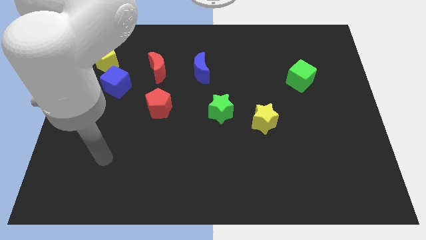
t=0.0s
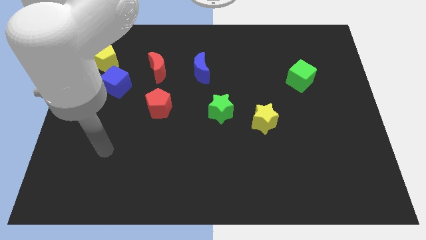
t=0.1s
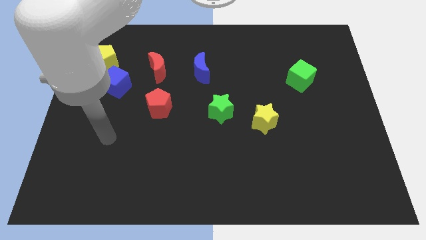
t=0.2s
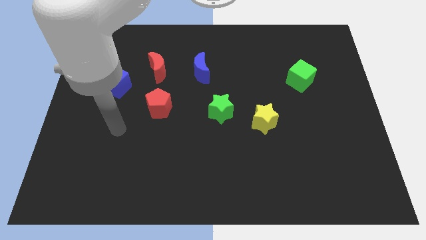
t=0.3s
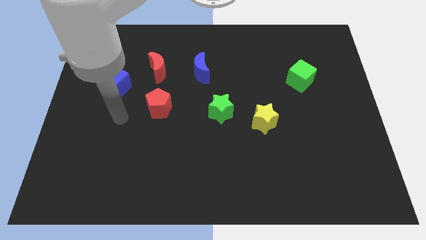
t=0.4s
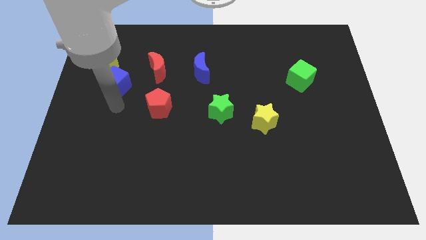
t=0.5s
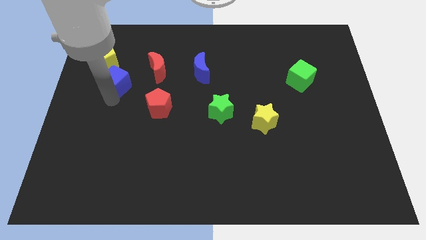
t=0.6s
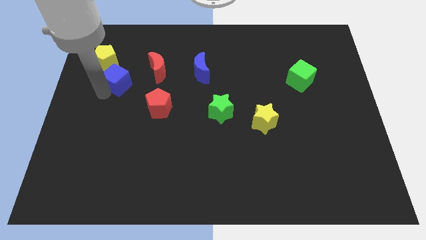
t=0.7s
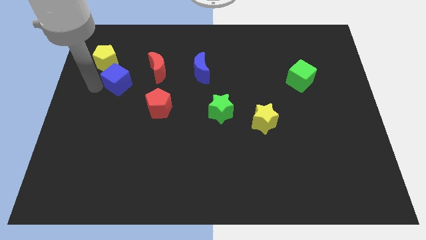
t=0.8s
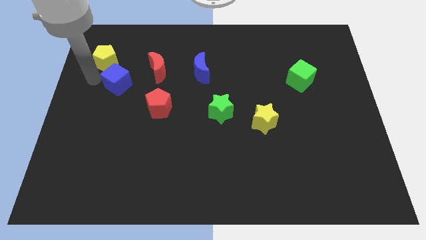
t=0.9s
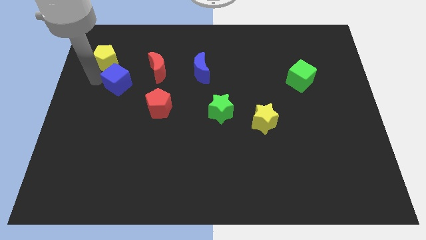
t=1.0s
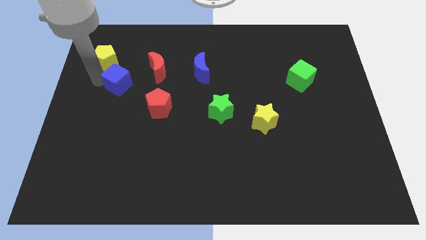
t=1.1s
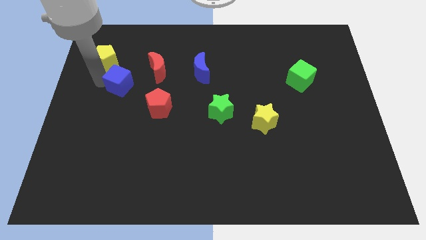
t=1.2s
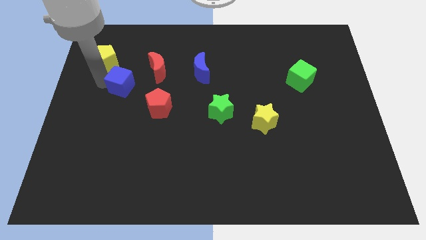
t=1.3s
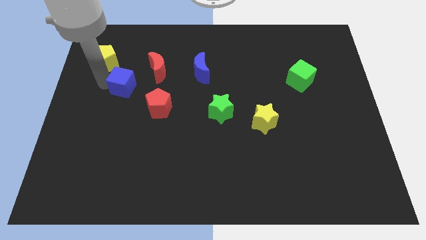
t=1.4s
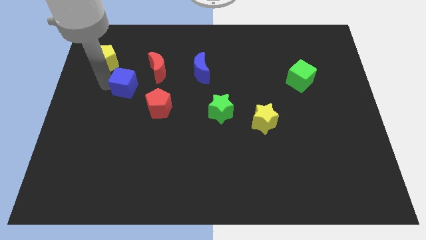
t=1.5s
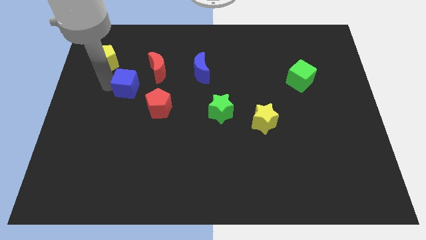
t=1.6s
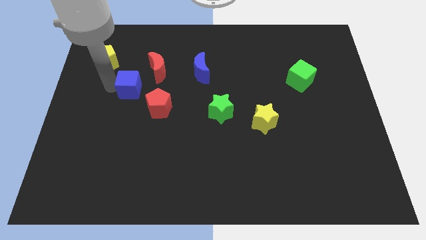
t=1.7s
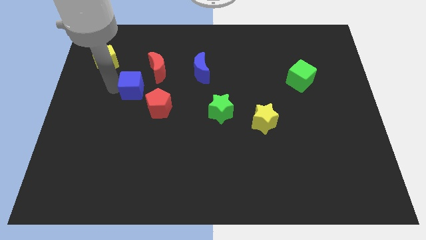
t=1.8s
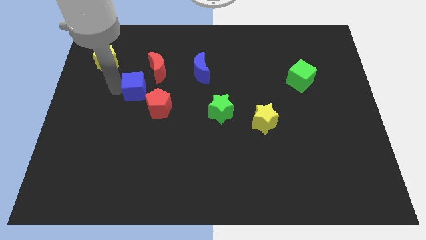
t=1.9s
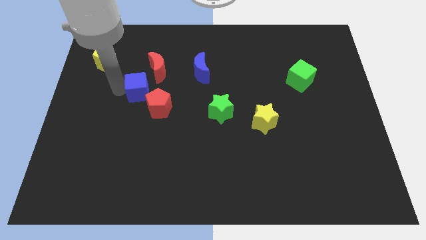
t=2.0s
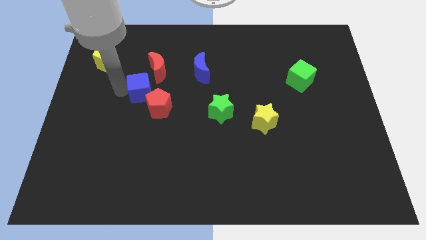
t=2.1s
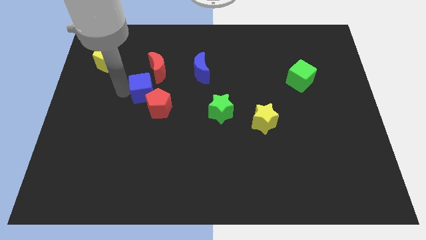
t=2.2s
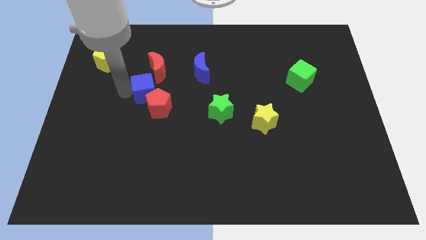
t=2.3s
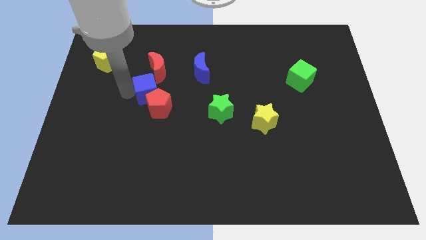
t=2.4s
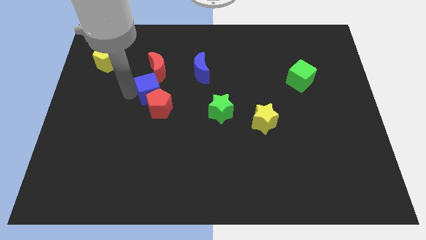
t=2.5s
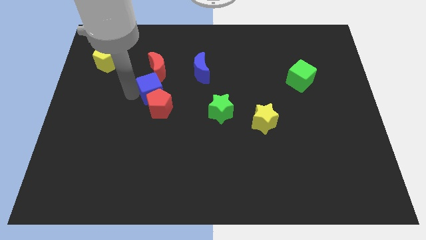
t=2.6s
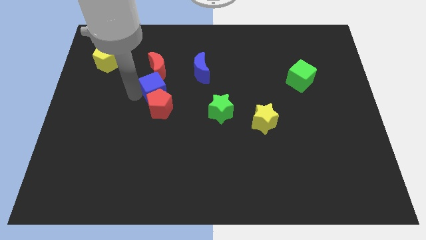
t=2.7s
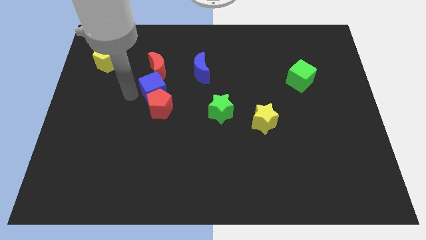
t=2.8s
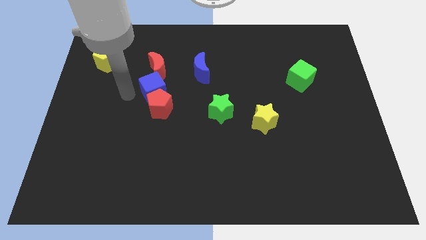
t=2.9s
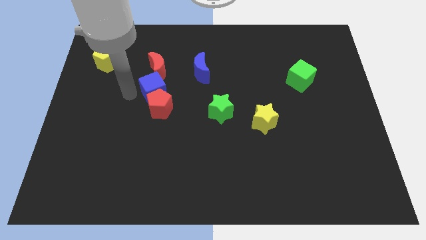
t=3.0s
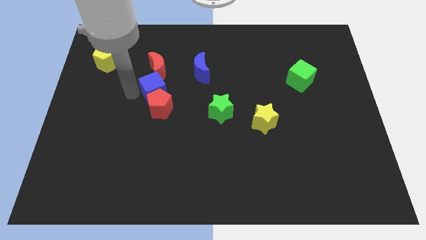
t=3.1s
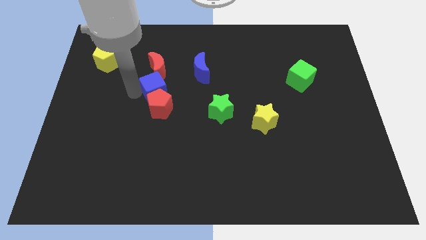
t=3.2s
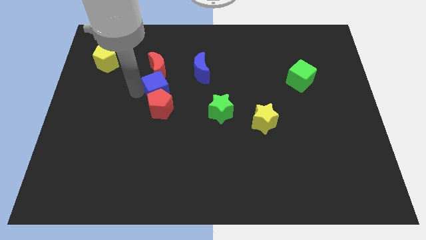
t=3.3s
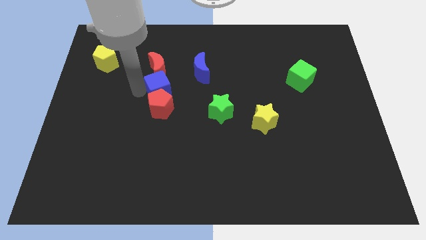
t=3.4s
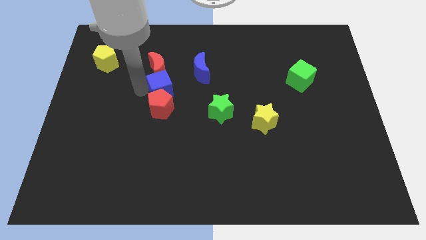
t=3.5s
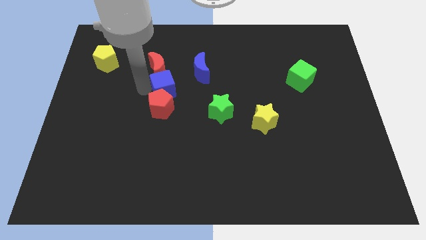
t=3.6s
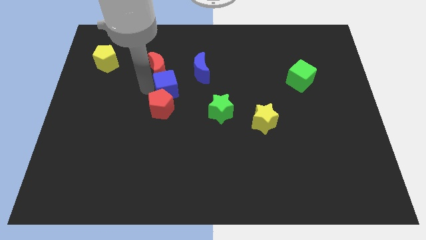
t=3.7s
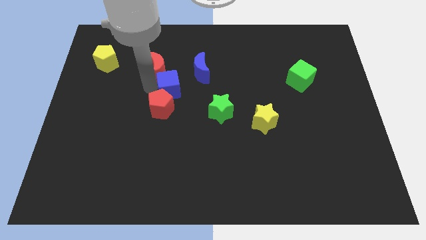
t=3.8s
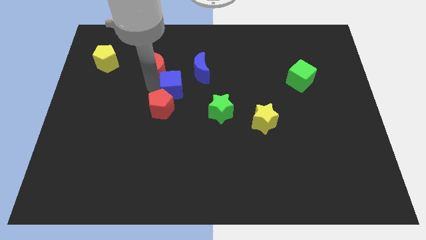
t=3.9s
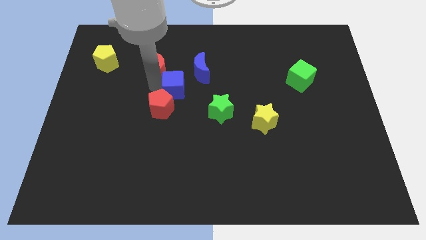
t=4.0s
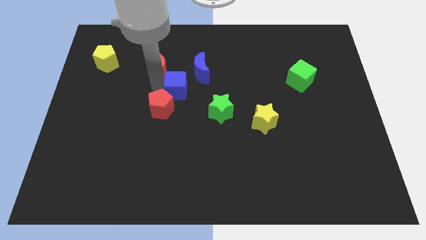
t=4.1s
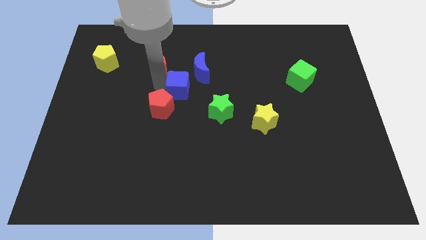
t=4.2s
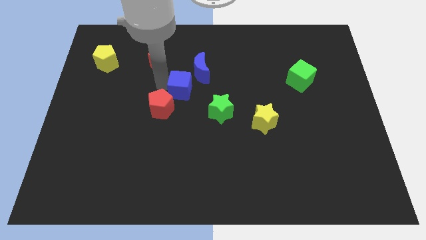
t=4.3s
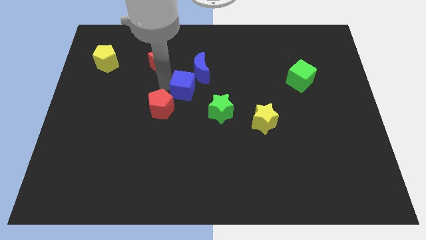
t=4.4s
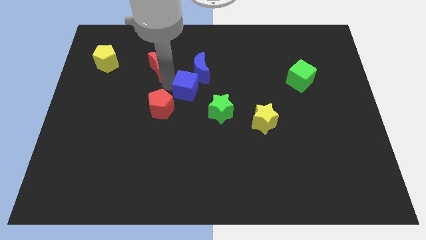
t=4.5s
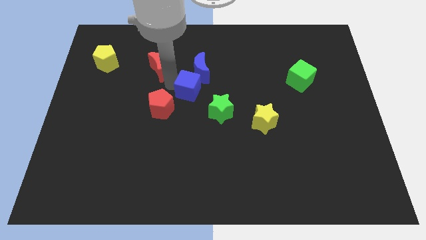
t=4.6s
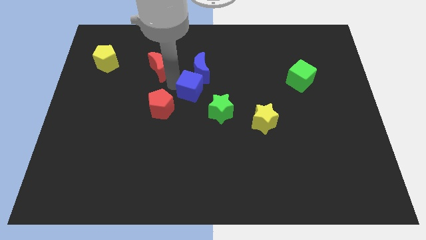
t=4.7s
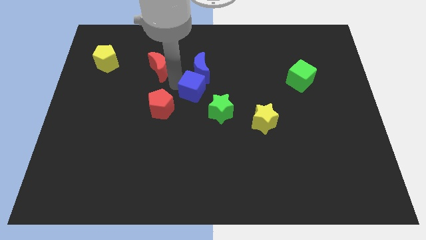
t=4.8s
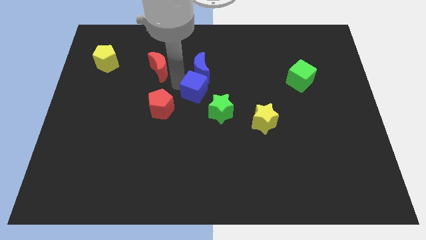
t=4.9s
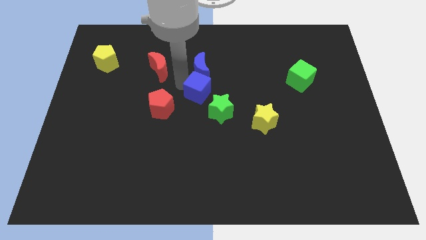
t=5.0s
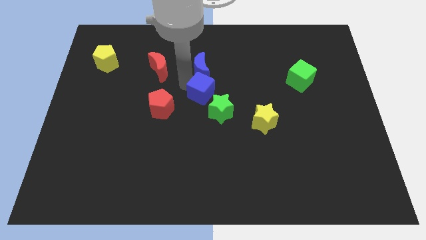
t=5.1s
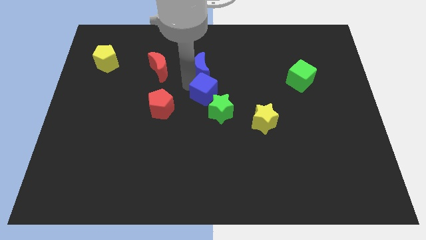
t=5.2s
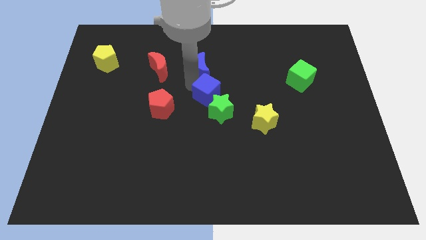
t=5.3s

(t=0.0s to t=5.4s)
slide the blue cube towards the green star

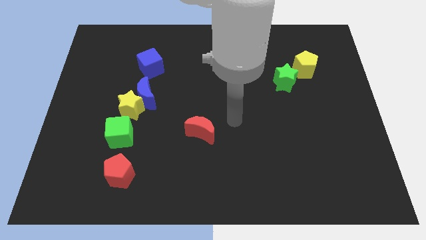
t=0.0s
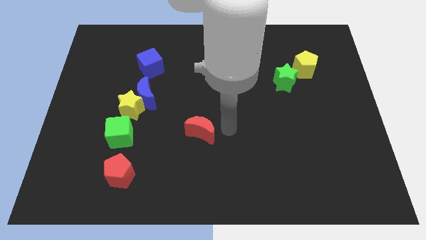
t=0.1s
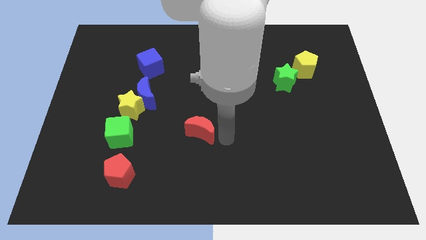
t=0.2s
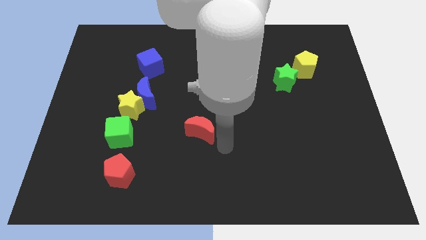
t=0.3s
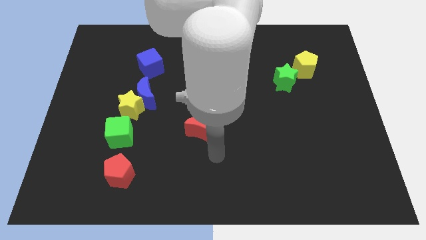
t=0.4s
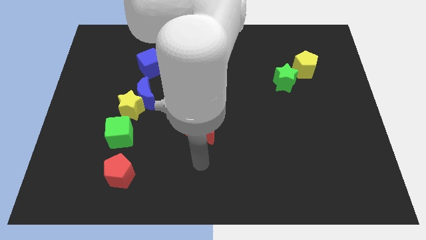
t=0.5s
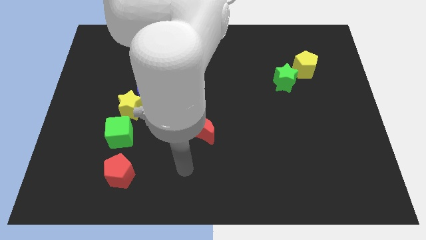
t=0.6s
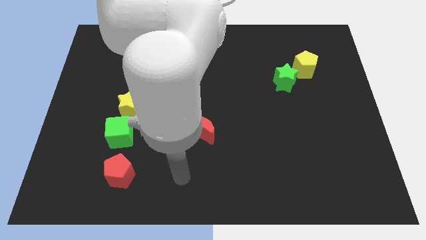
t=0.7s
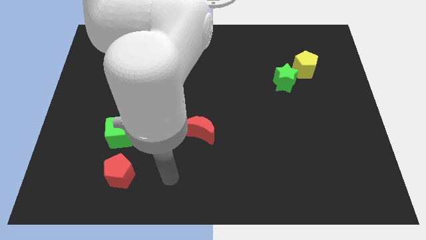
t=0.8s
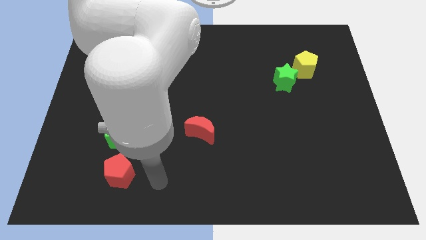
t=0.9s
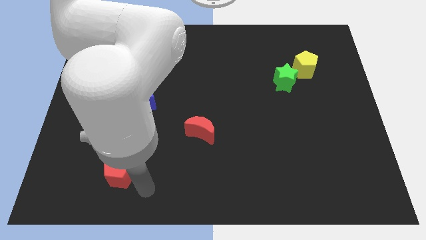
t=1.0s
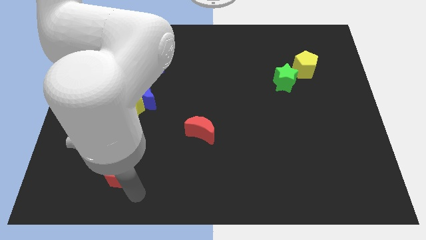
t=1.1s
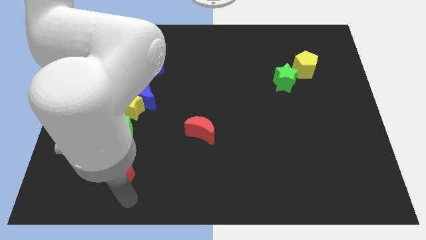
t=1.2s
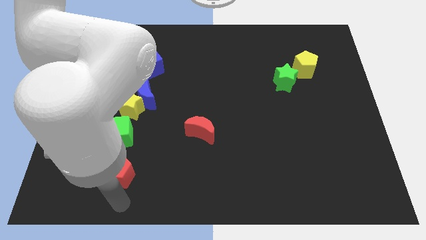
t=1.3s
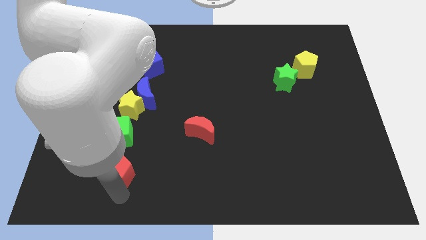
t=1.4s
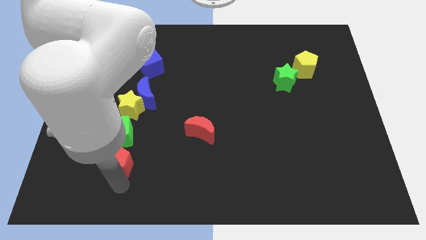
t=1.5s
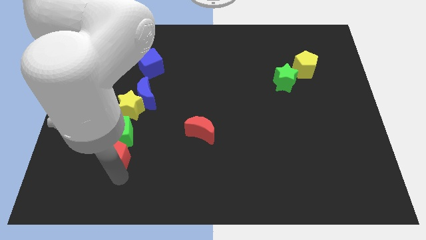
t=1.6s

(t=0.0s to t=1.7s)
put the red pentagon to the green cube

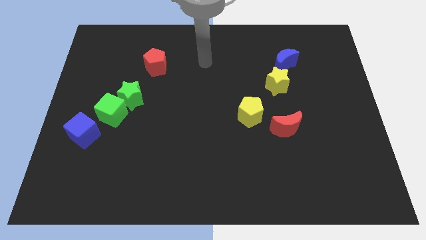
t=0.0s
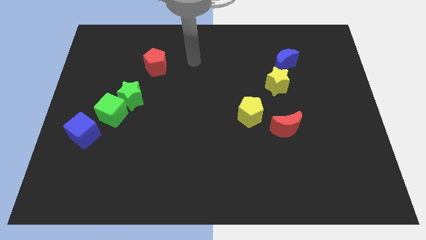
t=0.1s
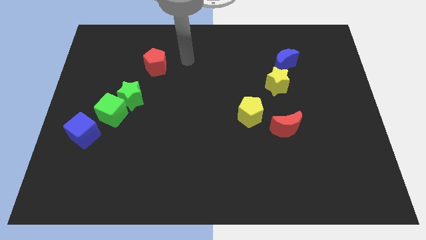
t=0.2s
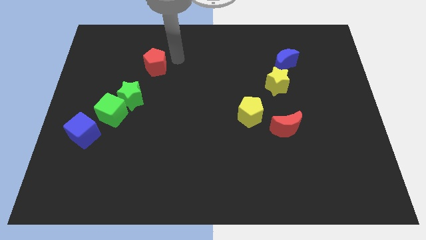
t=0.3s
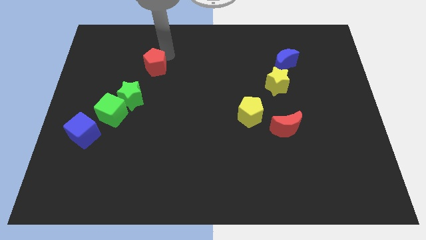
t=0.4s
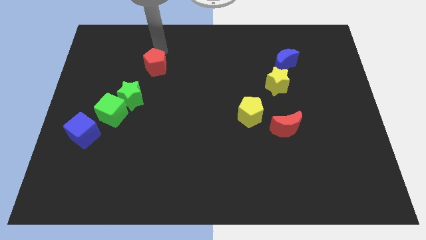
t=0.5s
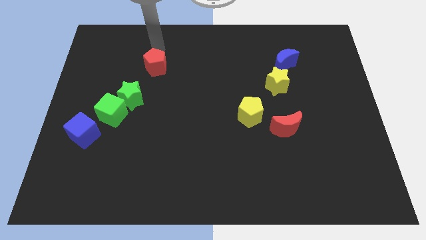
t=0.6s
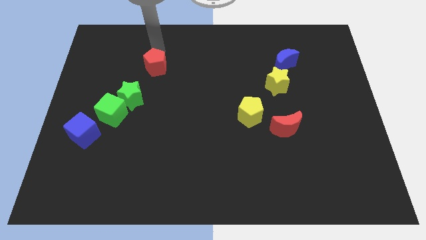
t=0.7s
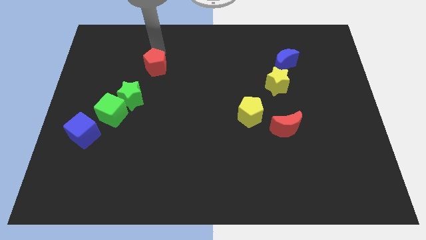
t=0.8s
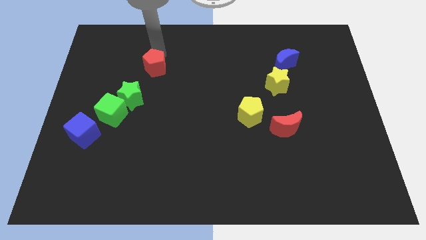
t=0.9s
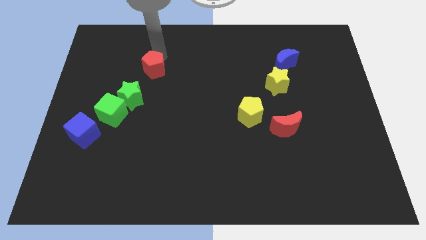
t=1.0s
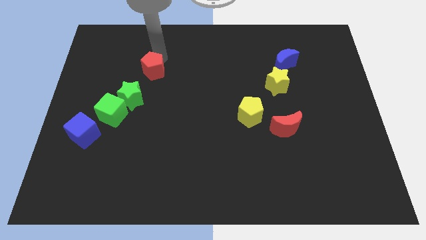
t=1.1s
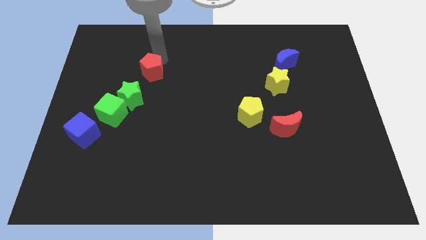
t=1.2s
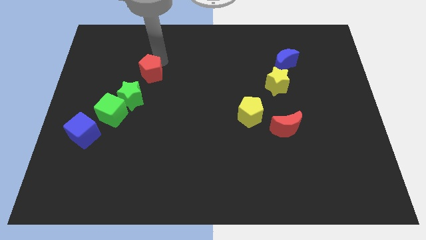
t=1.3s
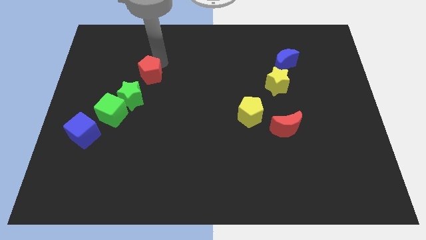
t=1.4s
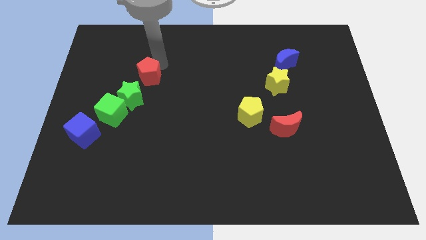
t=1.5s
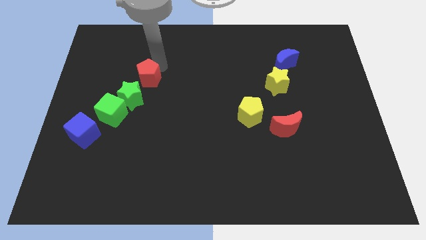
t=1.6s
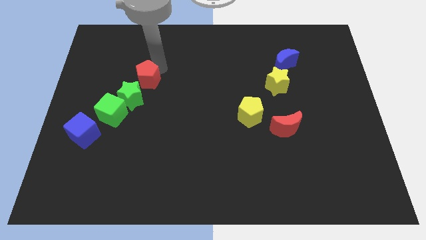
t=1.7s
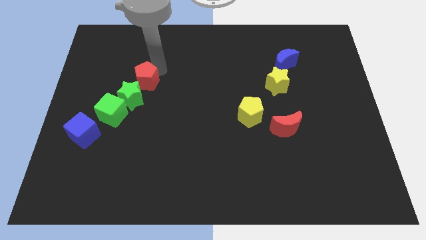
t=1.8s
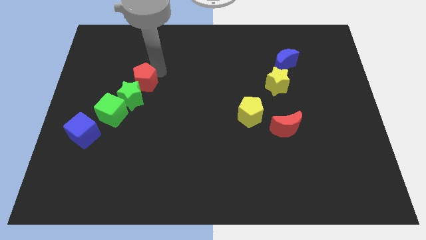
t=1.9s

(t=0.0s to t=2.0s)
put the red pentagon next to the green star
